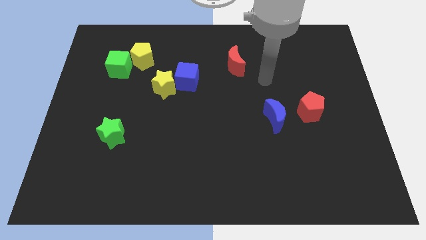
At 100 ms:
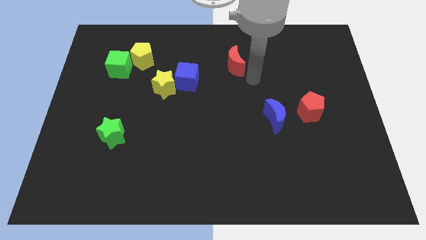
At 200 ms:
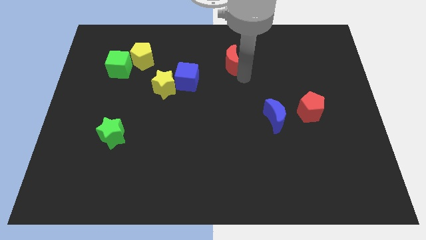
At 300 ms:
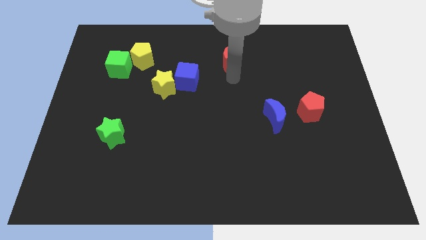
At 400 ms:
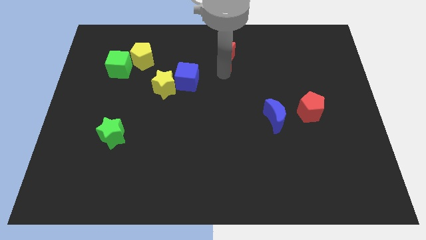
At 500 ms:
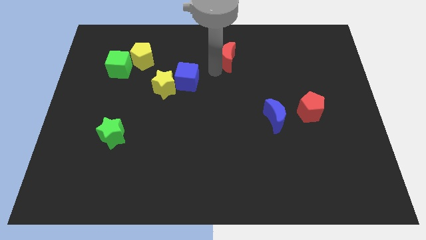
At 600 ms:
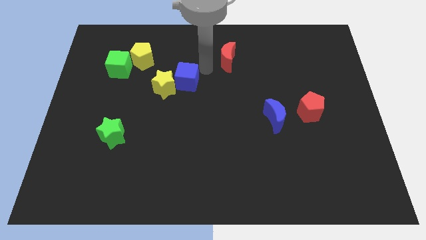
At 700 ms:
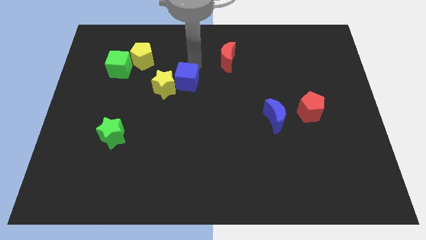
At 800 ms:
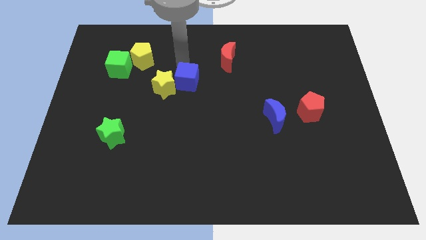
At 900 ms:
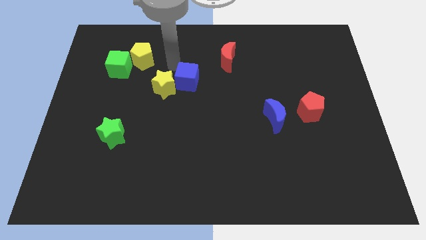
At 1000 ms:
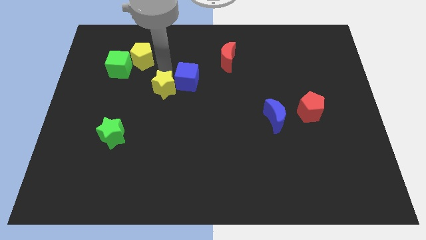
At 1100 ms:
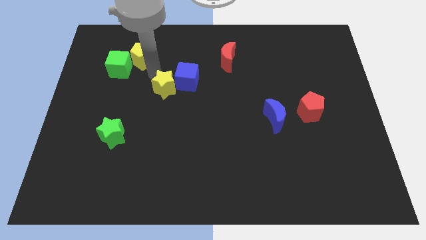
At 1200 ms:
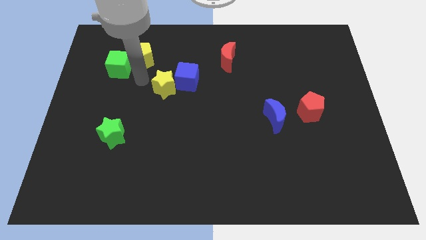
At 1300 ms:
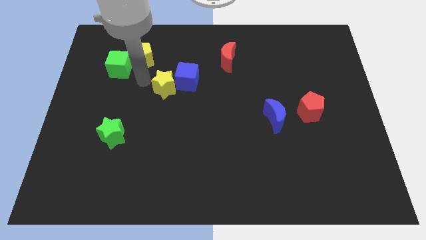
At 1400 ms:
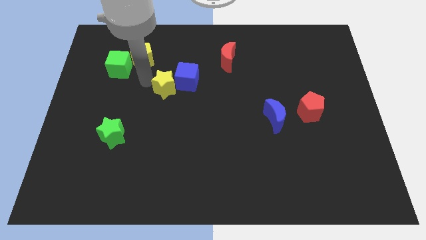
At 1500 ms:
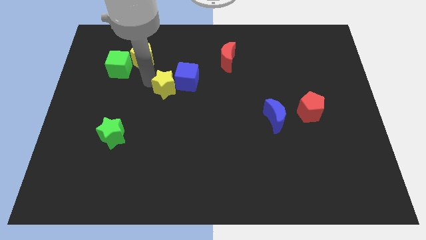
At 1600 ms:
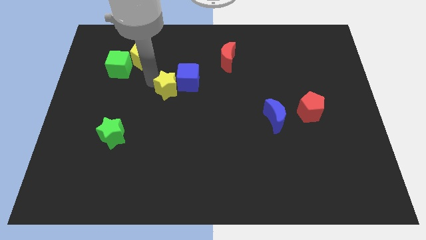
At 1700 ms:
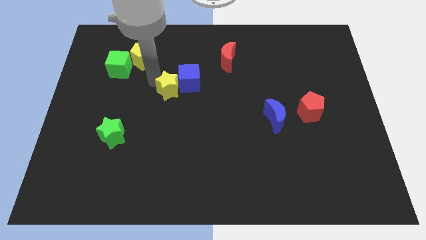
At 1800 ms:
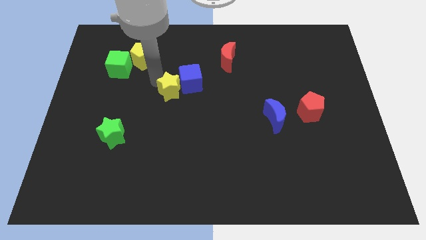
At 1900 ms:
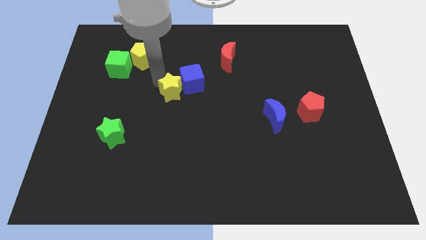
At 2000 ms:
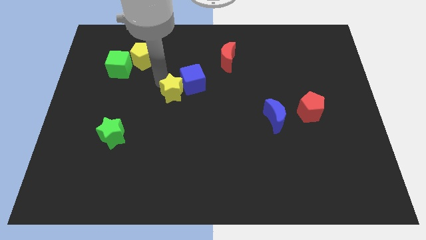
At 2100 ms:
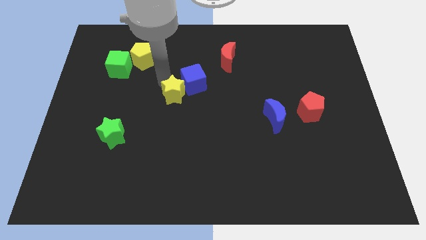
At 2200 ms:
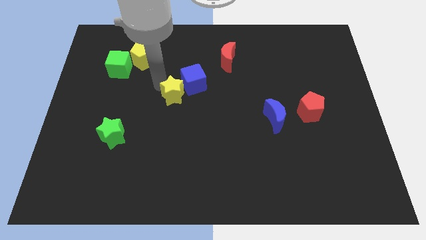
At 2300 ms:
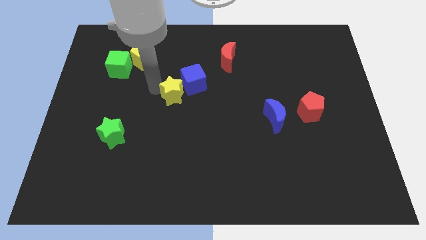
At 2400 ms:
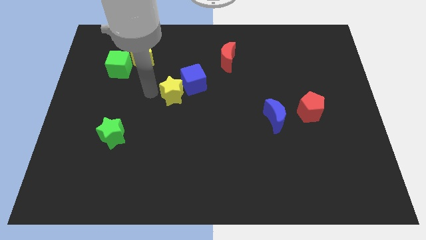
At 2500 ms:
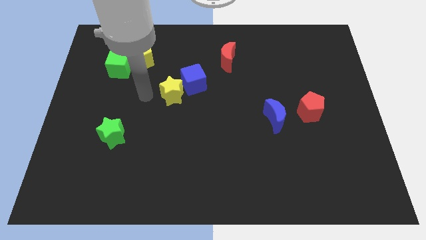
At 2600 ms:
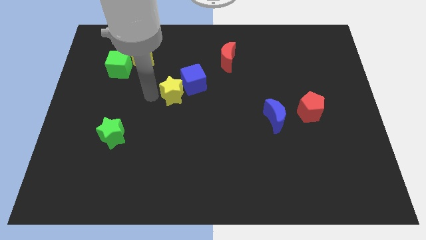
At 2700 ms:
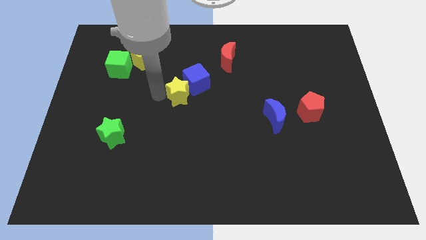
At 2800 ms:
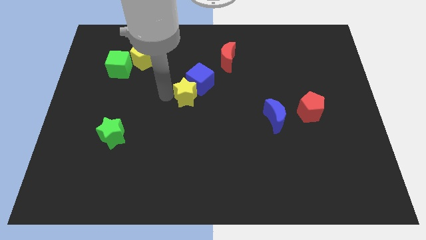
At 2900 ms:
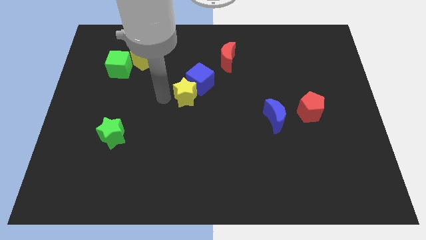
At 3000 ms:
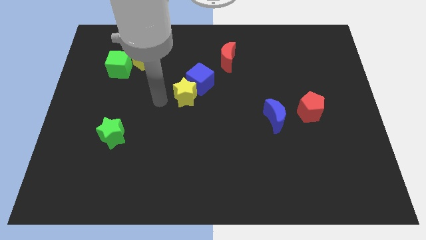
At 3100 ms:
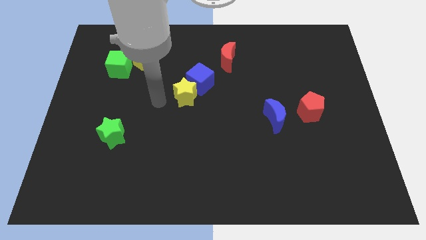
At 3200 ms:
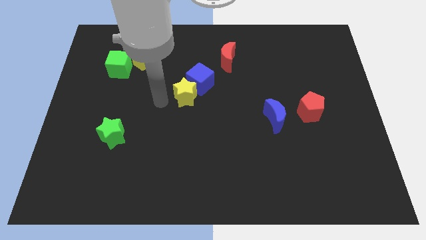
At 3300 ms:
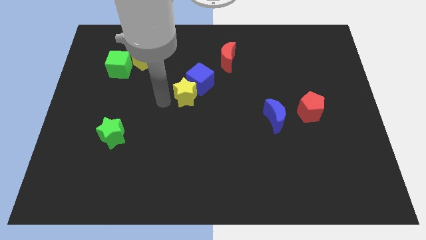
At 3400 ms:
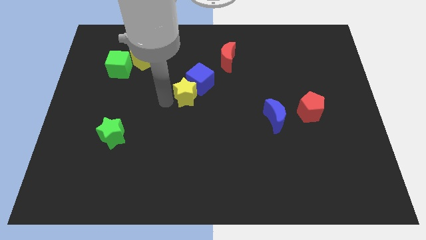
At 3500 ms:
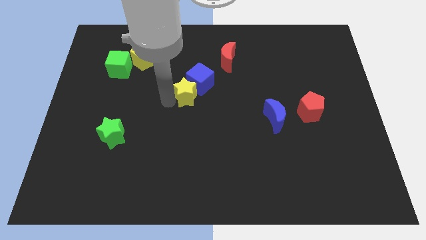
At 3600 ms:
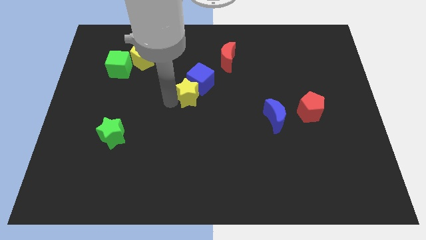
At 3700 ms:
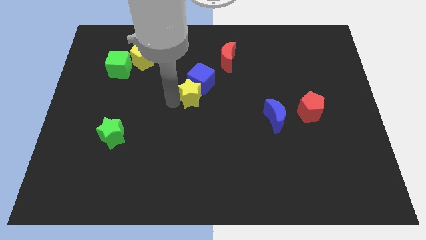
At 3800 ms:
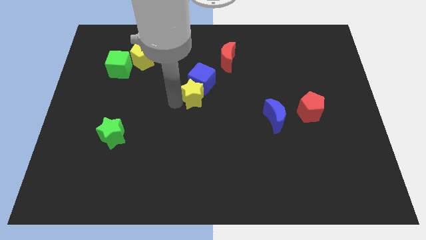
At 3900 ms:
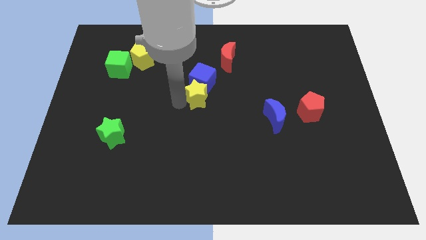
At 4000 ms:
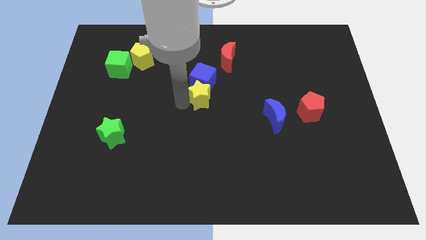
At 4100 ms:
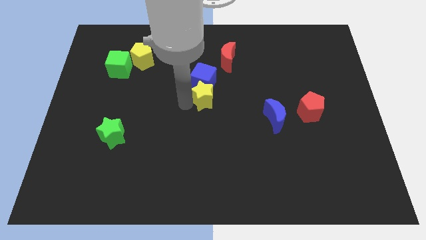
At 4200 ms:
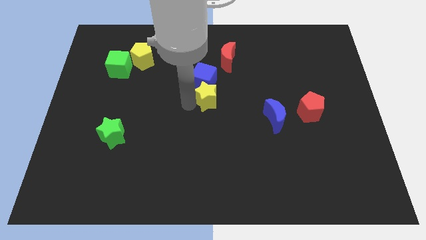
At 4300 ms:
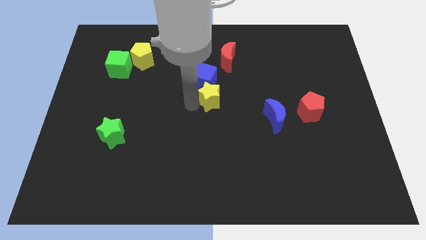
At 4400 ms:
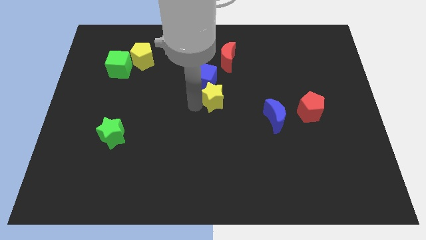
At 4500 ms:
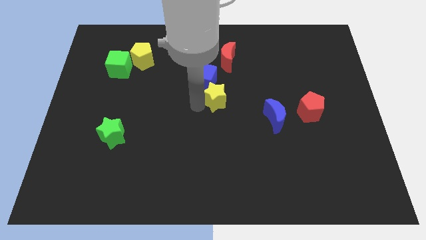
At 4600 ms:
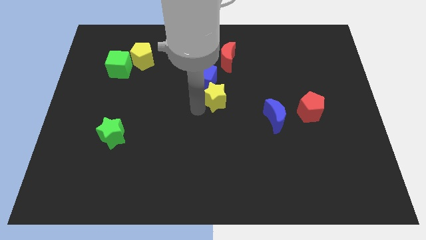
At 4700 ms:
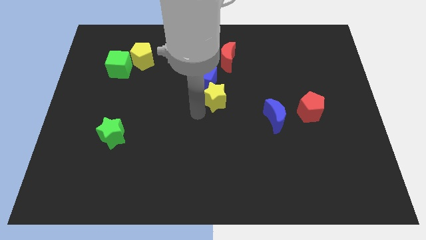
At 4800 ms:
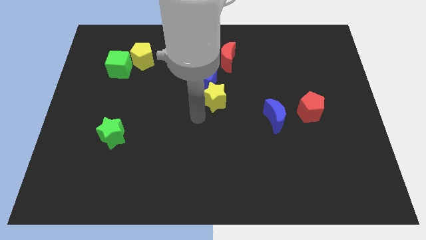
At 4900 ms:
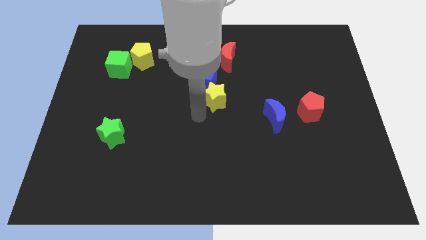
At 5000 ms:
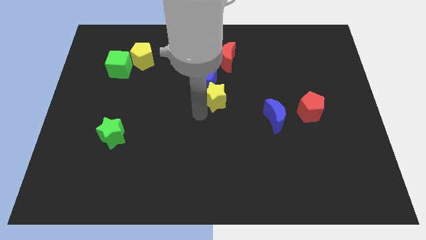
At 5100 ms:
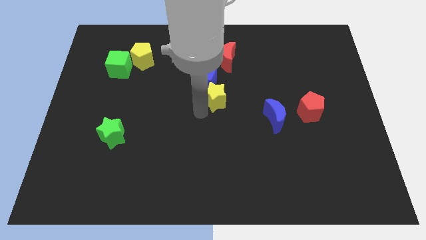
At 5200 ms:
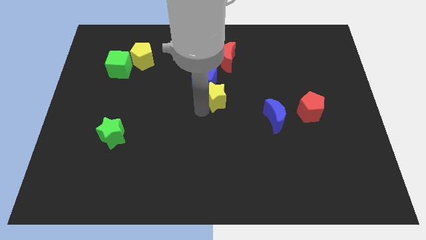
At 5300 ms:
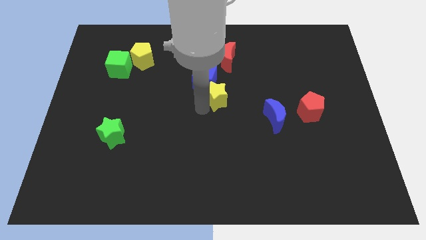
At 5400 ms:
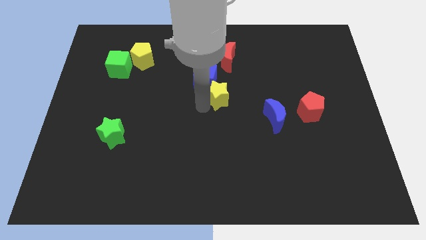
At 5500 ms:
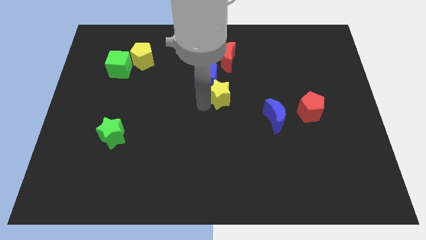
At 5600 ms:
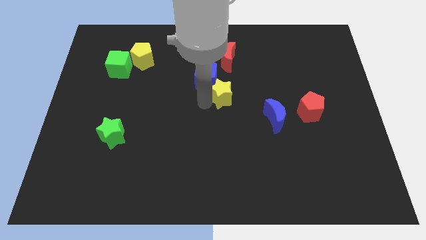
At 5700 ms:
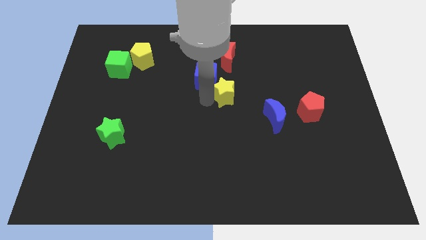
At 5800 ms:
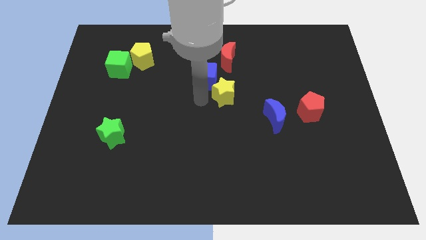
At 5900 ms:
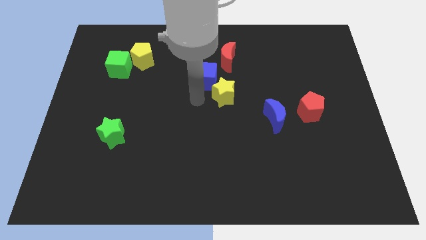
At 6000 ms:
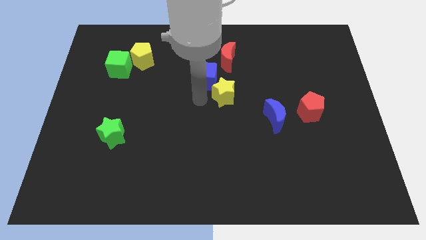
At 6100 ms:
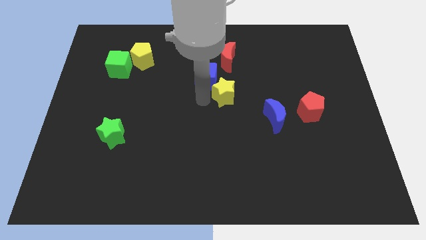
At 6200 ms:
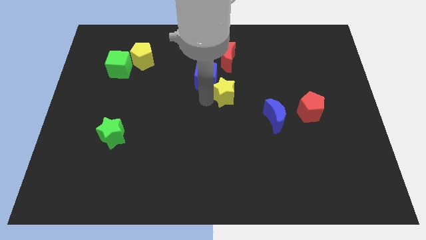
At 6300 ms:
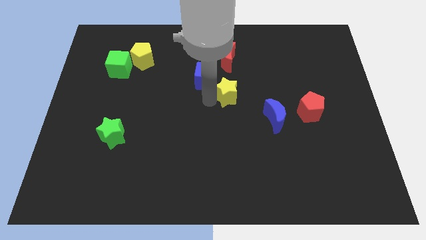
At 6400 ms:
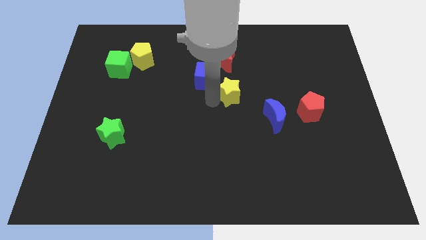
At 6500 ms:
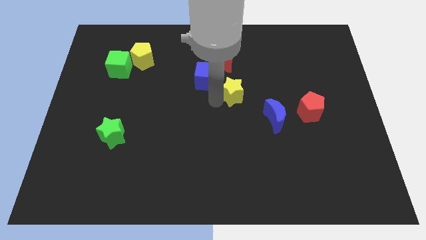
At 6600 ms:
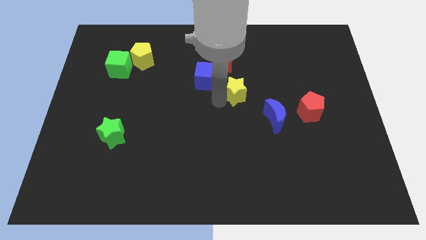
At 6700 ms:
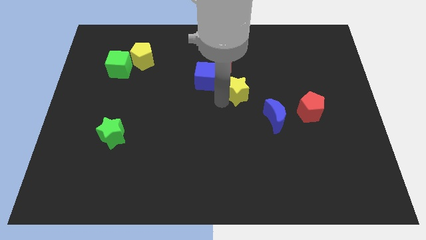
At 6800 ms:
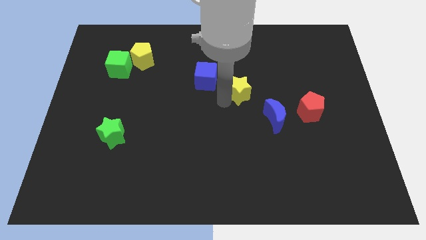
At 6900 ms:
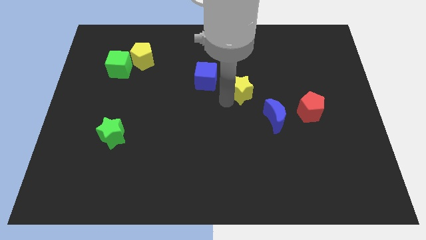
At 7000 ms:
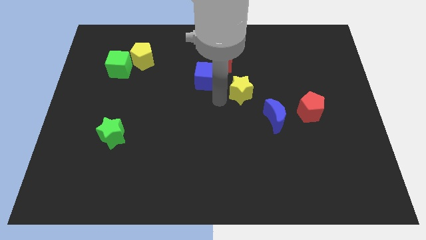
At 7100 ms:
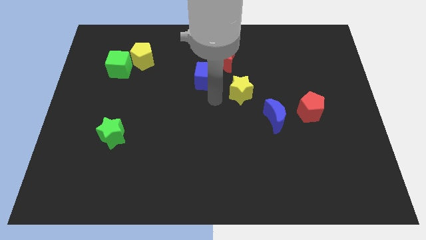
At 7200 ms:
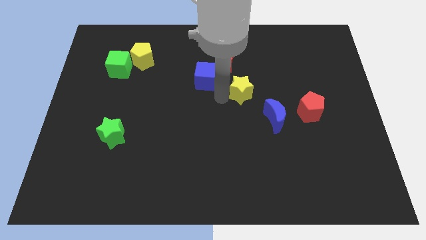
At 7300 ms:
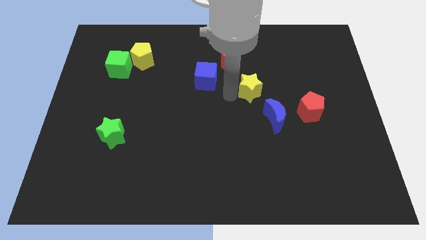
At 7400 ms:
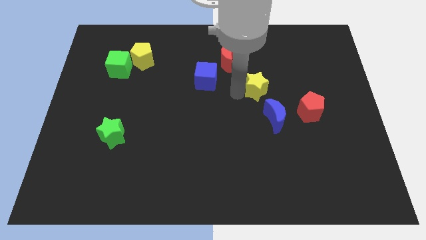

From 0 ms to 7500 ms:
put the yellow star to the top of the blue moon

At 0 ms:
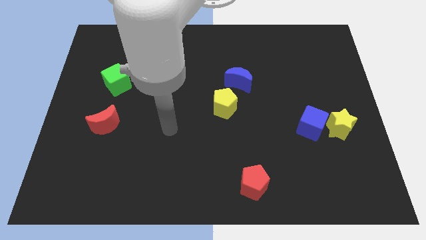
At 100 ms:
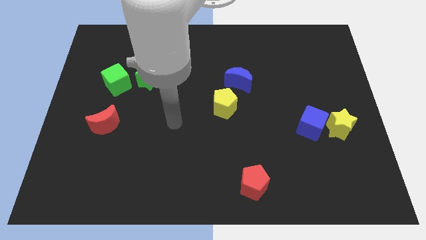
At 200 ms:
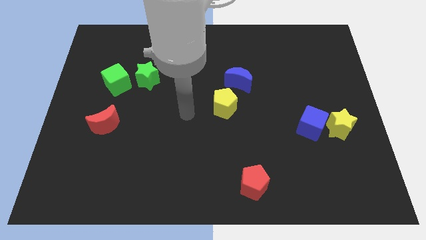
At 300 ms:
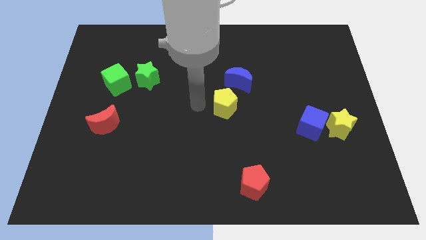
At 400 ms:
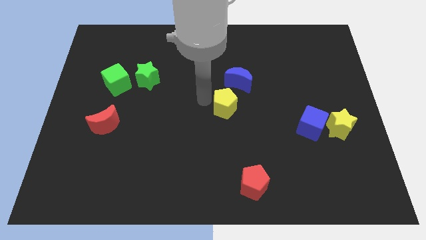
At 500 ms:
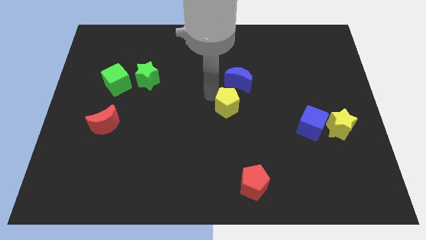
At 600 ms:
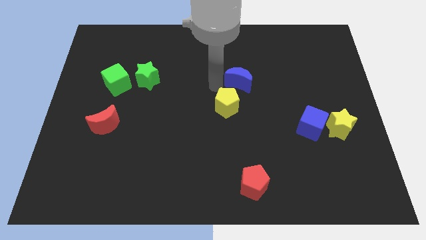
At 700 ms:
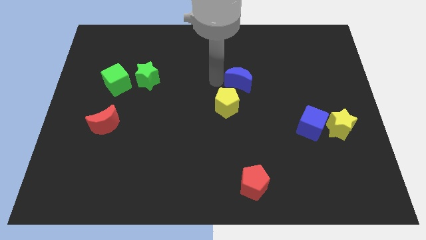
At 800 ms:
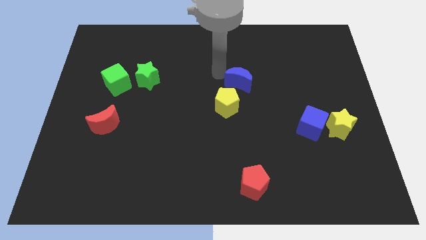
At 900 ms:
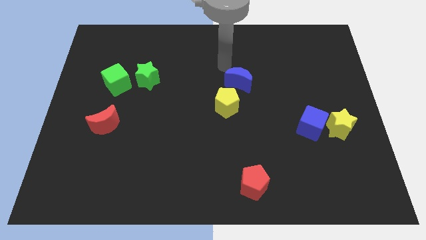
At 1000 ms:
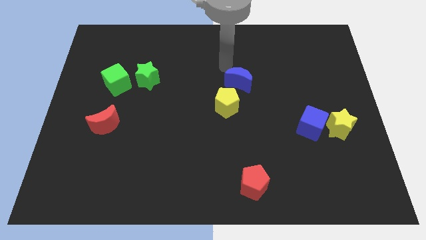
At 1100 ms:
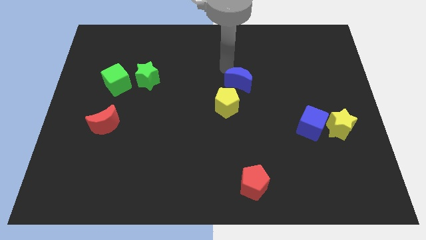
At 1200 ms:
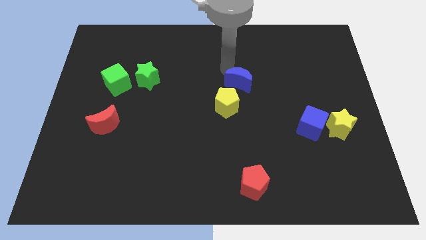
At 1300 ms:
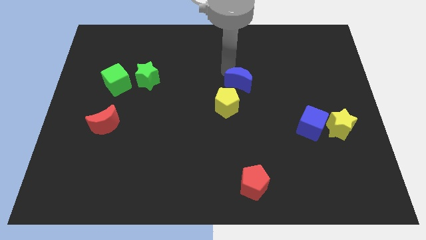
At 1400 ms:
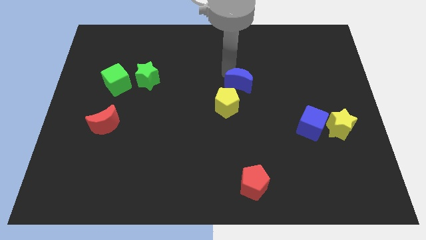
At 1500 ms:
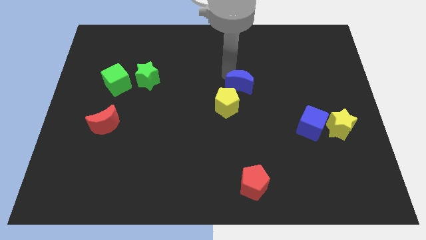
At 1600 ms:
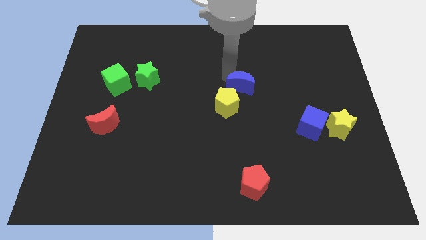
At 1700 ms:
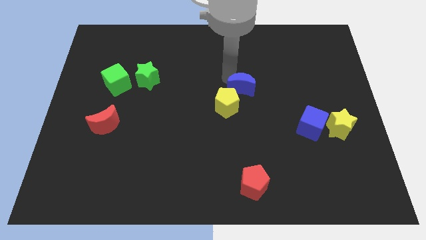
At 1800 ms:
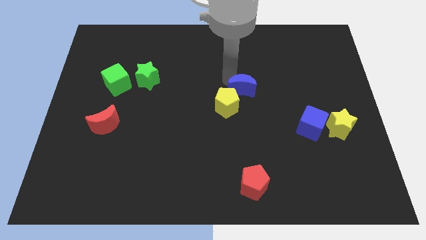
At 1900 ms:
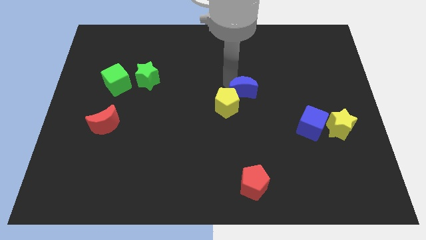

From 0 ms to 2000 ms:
slide the blue moon to the right side of the yellow pentagon
